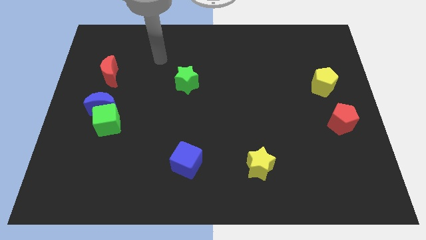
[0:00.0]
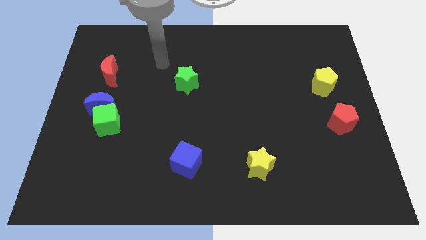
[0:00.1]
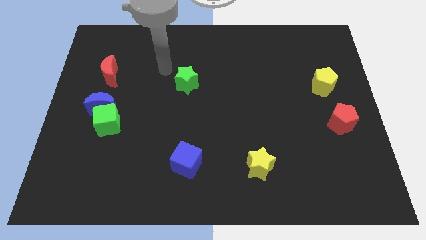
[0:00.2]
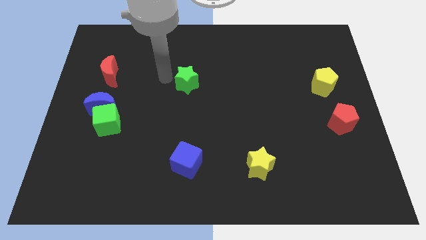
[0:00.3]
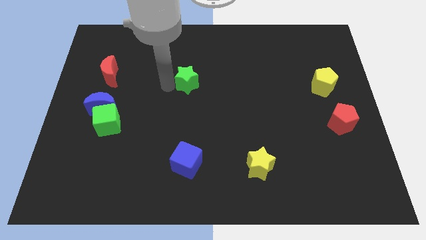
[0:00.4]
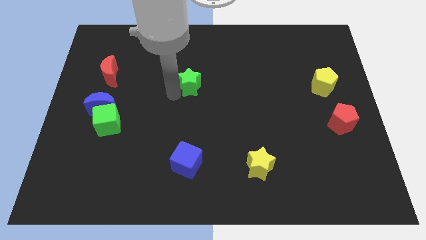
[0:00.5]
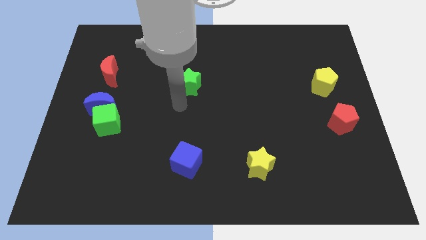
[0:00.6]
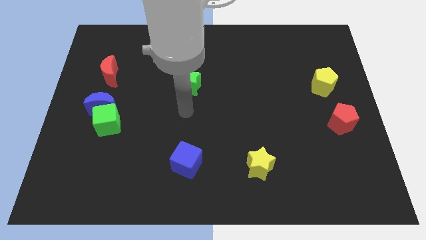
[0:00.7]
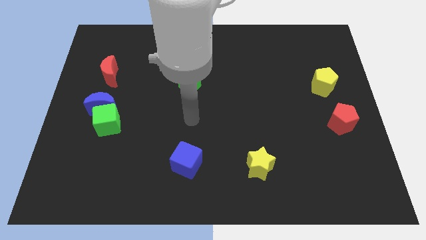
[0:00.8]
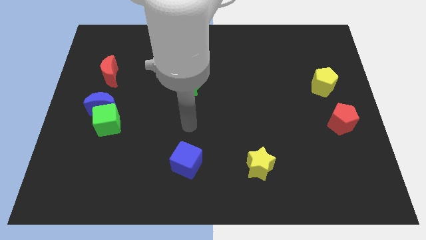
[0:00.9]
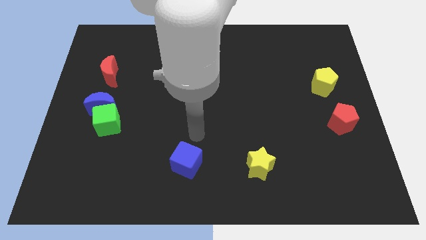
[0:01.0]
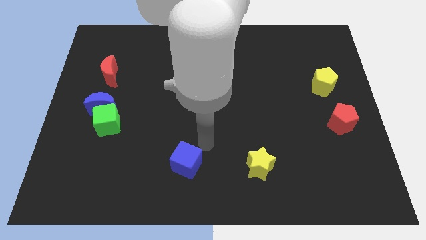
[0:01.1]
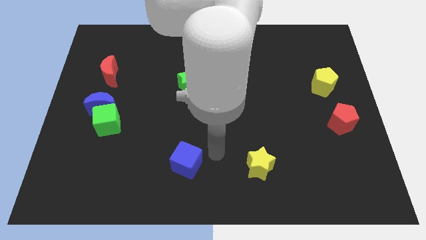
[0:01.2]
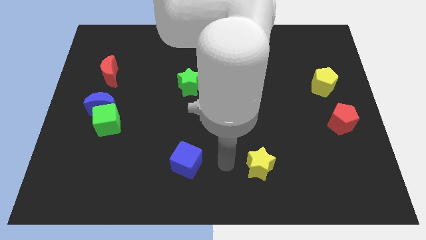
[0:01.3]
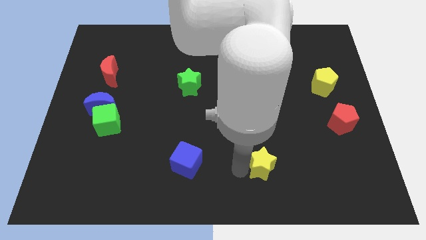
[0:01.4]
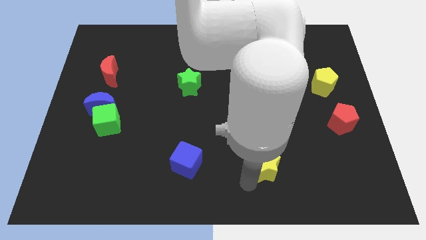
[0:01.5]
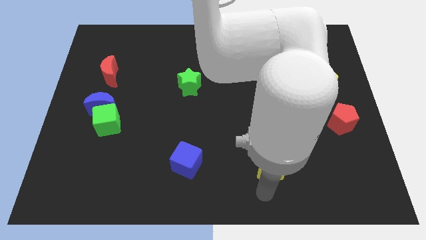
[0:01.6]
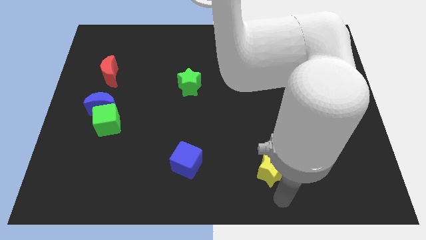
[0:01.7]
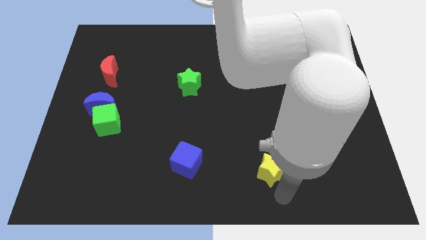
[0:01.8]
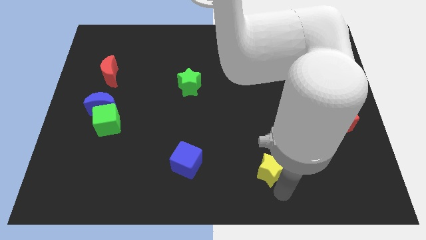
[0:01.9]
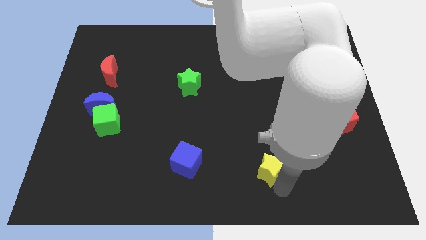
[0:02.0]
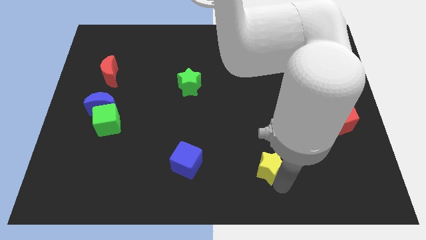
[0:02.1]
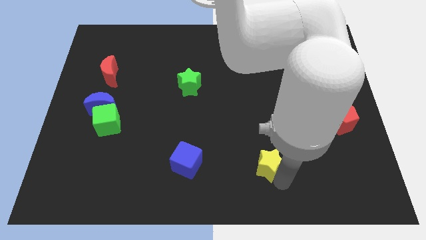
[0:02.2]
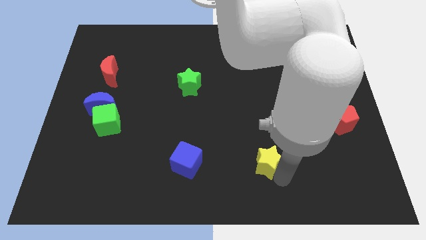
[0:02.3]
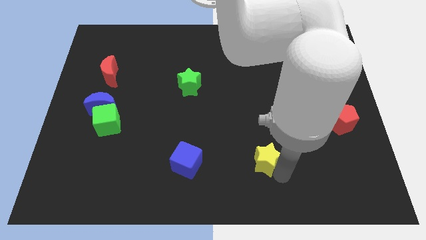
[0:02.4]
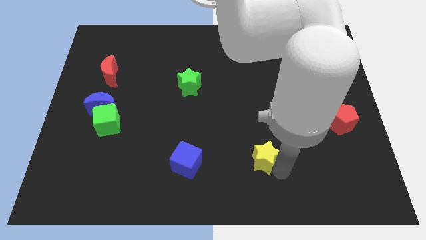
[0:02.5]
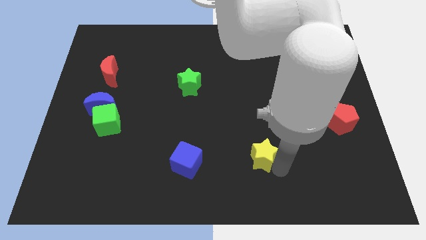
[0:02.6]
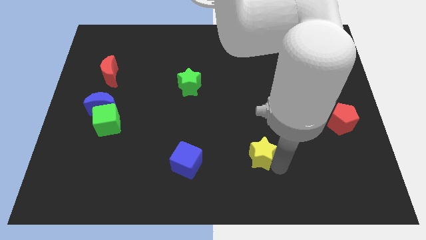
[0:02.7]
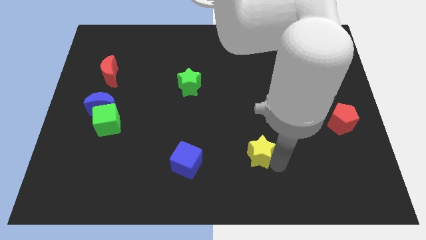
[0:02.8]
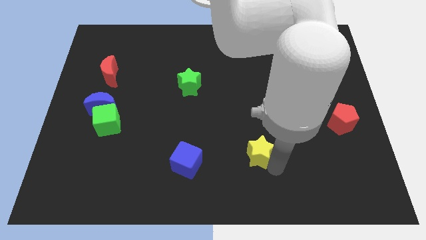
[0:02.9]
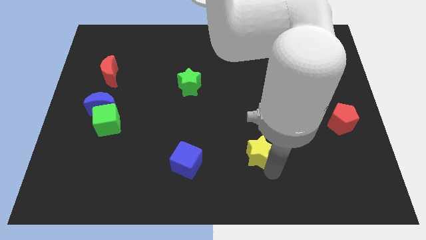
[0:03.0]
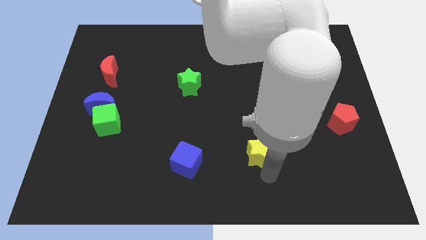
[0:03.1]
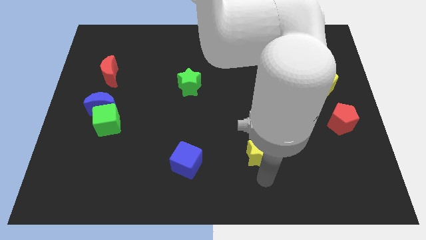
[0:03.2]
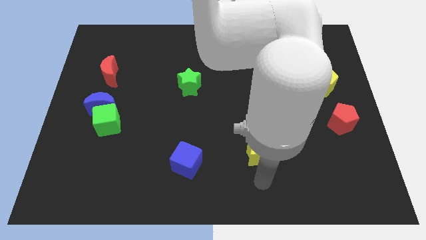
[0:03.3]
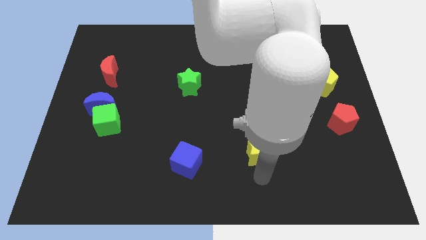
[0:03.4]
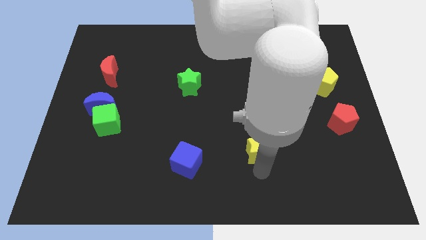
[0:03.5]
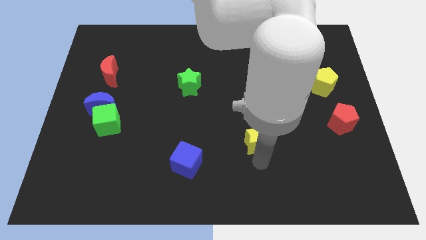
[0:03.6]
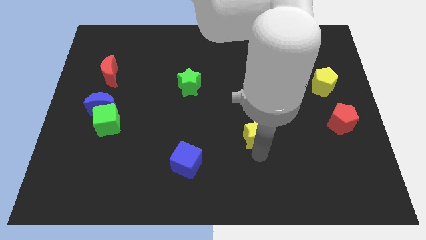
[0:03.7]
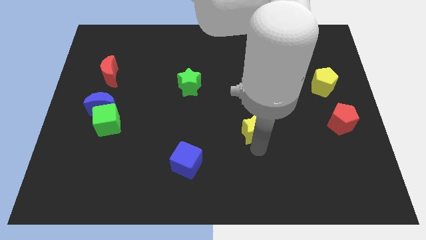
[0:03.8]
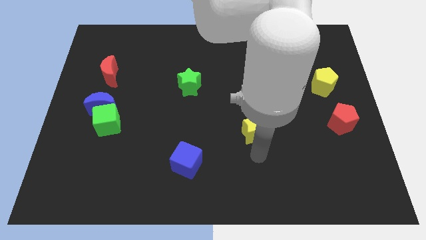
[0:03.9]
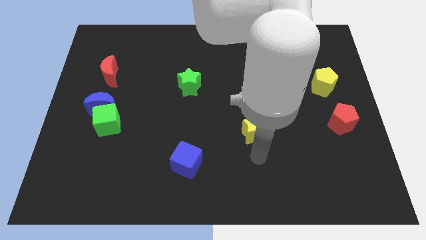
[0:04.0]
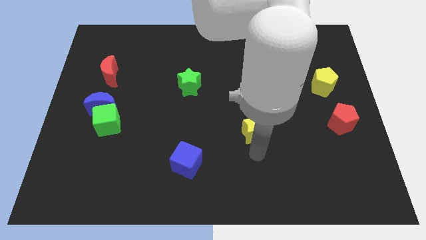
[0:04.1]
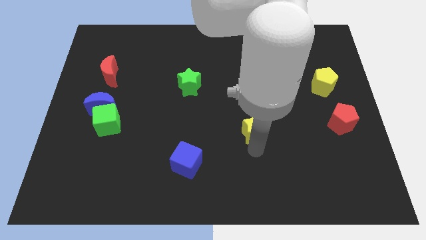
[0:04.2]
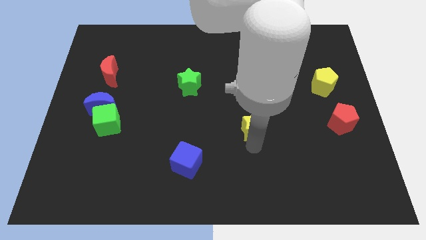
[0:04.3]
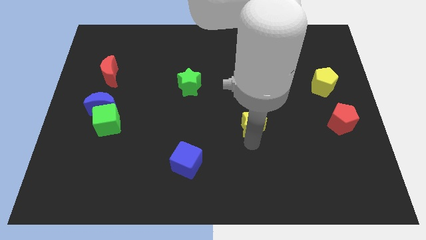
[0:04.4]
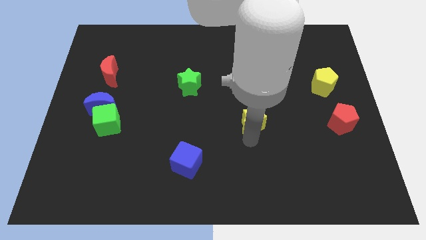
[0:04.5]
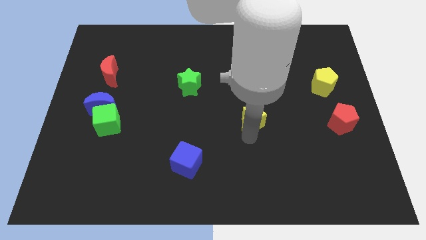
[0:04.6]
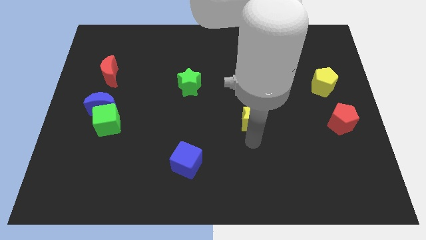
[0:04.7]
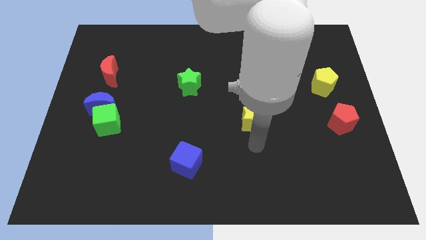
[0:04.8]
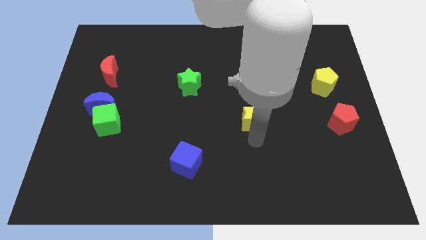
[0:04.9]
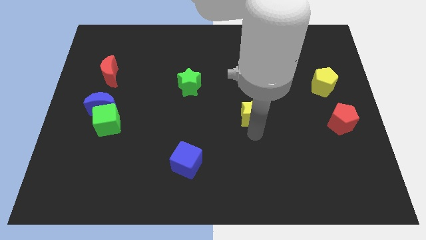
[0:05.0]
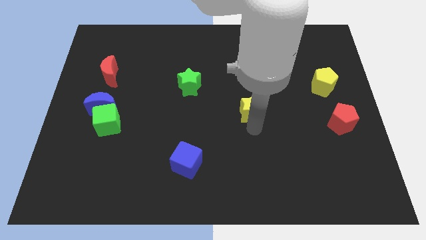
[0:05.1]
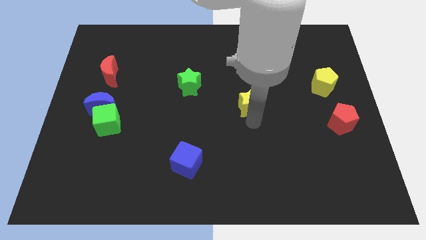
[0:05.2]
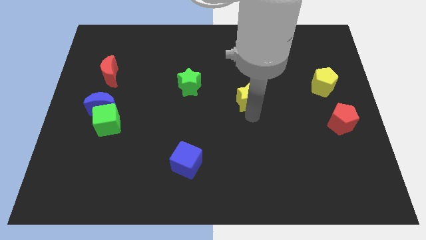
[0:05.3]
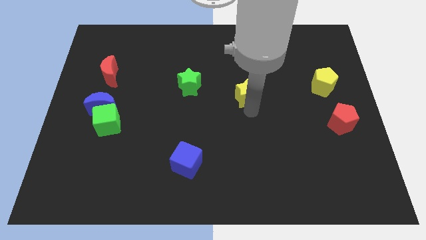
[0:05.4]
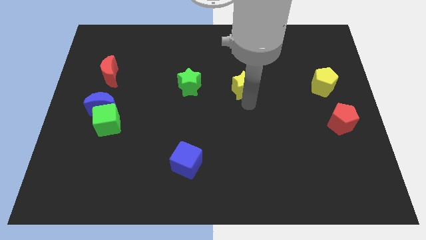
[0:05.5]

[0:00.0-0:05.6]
move the yellow star upwards

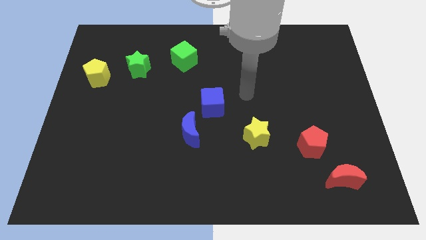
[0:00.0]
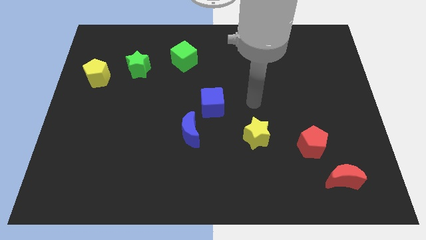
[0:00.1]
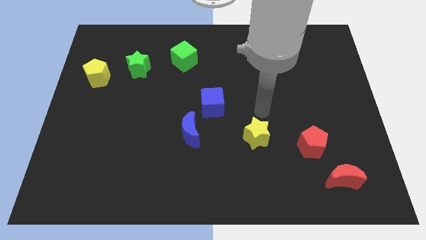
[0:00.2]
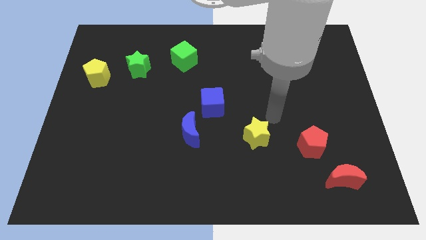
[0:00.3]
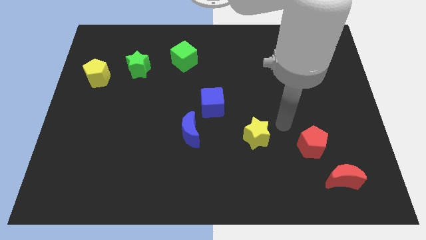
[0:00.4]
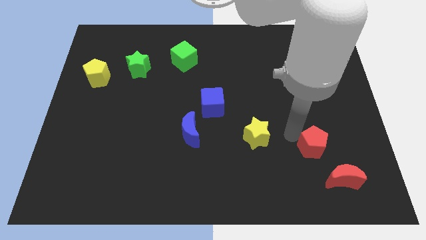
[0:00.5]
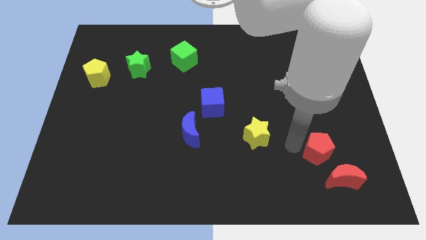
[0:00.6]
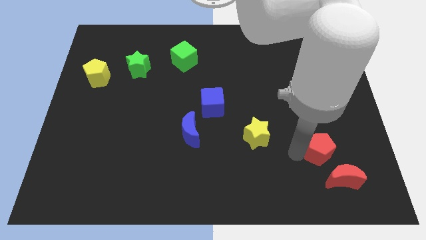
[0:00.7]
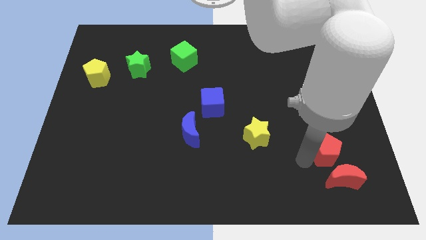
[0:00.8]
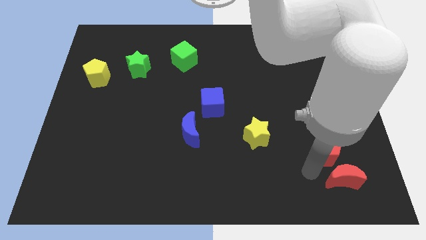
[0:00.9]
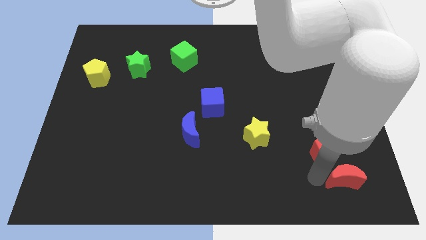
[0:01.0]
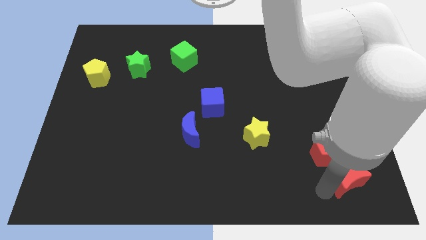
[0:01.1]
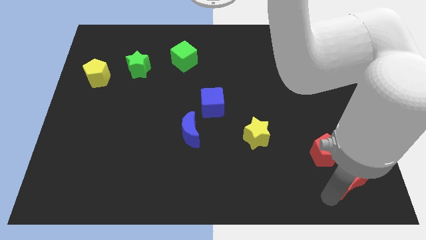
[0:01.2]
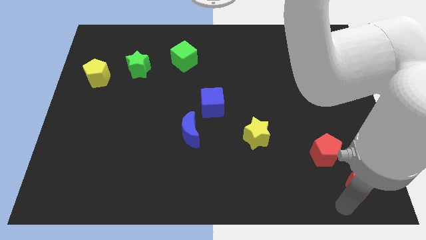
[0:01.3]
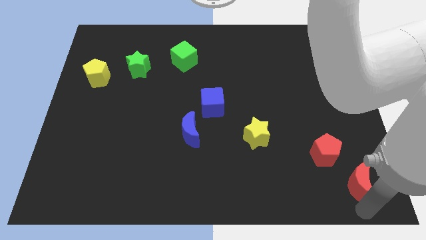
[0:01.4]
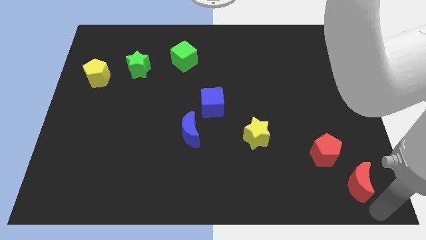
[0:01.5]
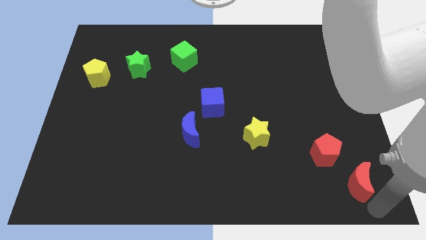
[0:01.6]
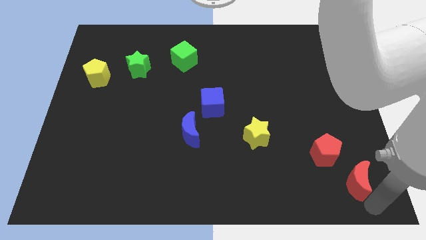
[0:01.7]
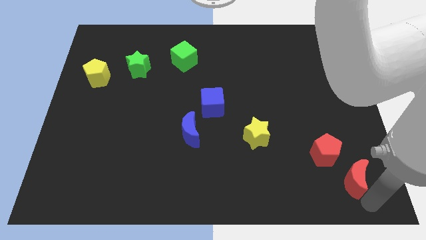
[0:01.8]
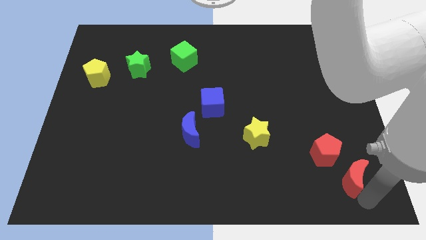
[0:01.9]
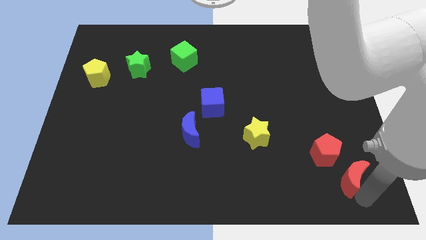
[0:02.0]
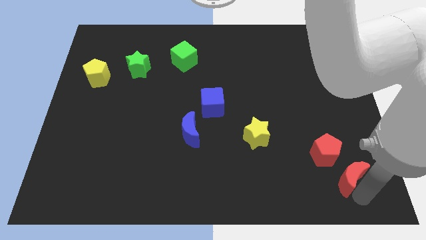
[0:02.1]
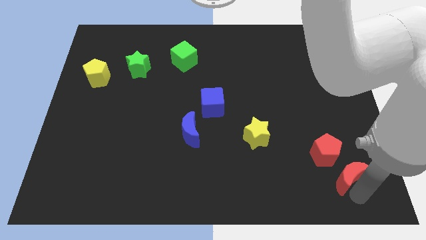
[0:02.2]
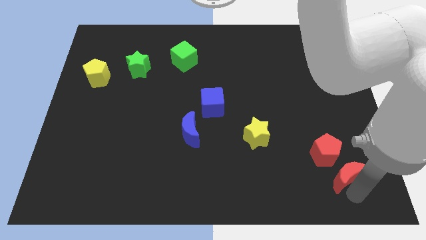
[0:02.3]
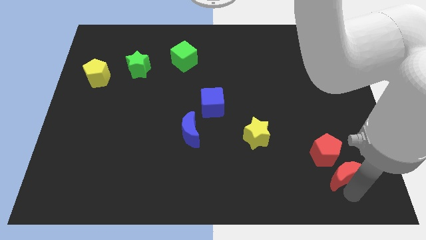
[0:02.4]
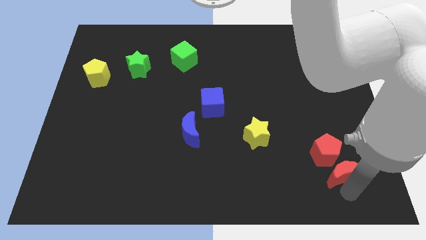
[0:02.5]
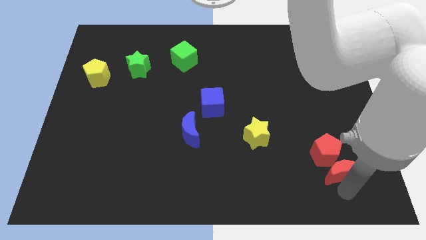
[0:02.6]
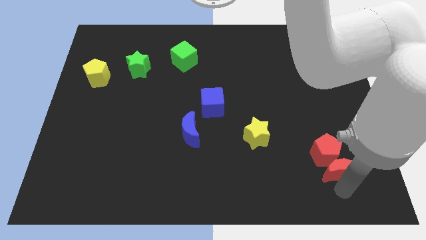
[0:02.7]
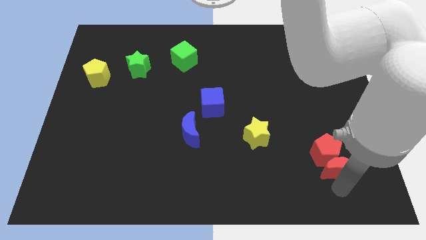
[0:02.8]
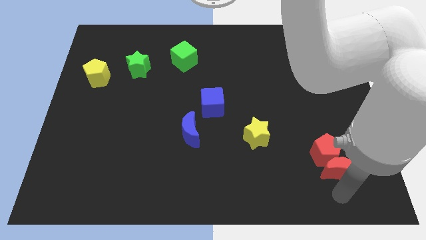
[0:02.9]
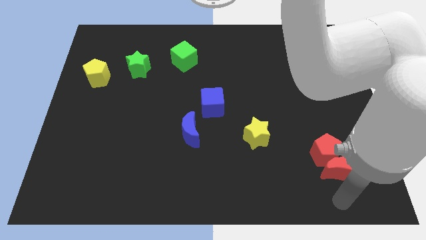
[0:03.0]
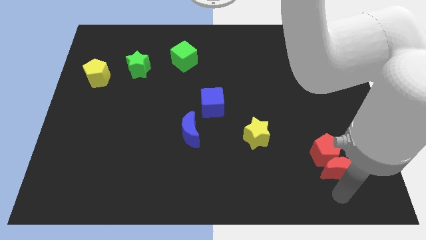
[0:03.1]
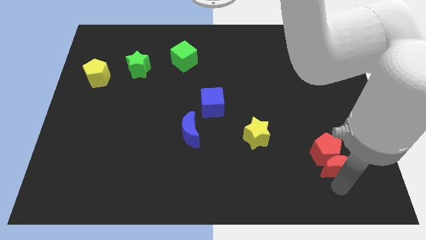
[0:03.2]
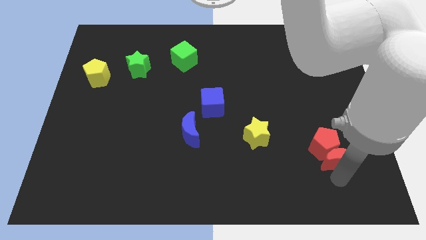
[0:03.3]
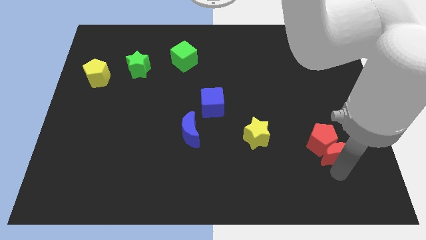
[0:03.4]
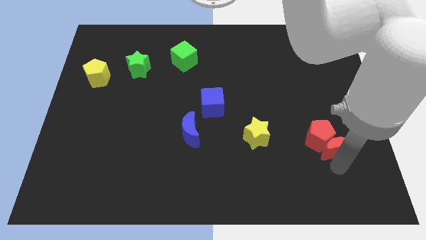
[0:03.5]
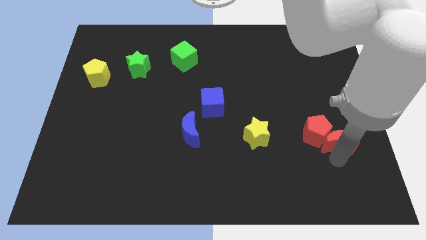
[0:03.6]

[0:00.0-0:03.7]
slightly slide the red moon upwards
